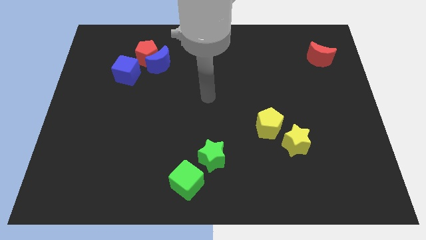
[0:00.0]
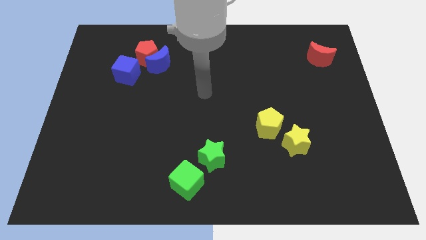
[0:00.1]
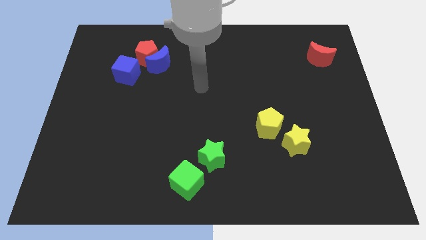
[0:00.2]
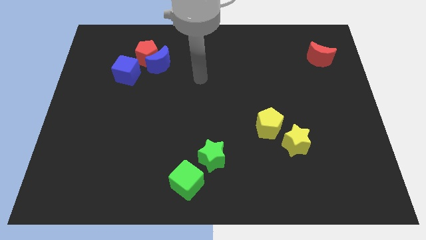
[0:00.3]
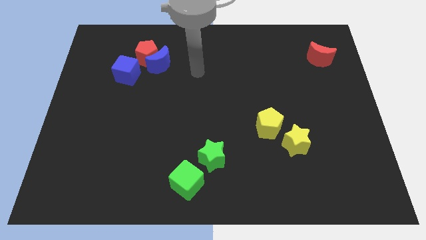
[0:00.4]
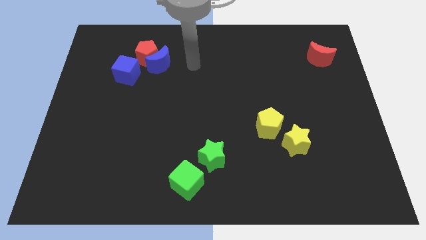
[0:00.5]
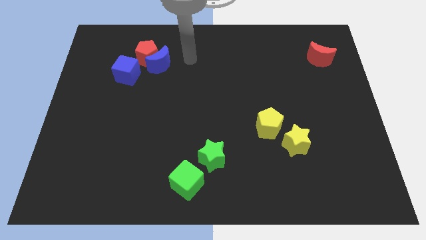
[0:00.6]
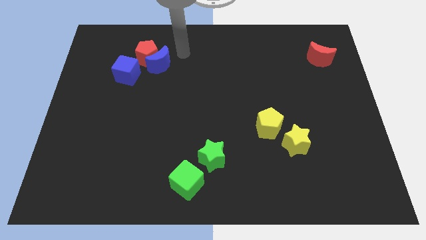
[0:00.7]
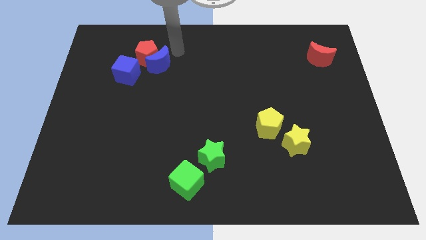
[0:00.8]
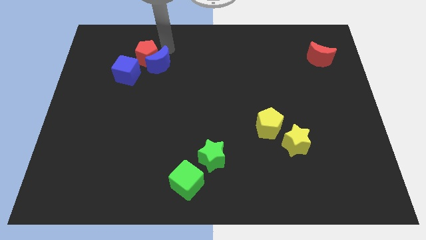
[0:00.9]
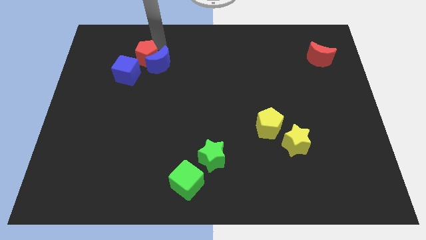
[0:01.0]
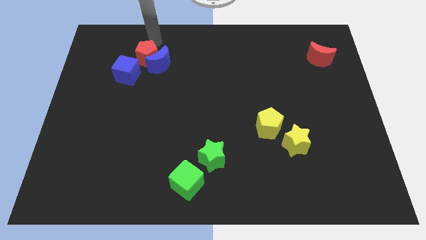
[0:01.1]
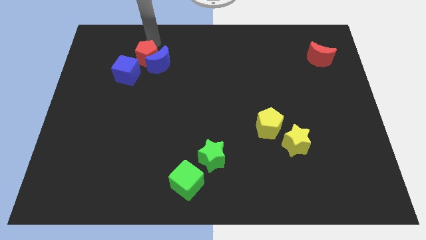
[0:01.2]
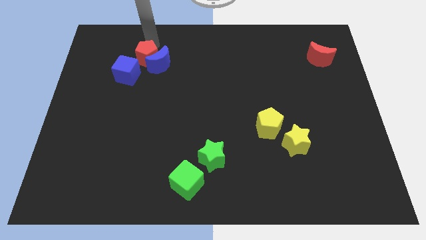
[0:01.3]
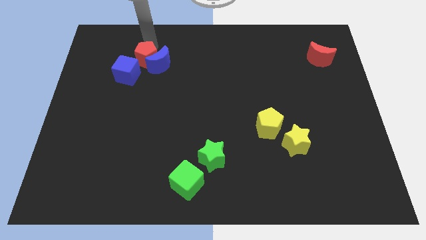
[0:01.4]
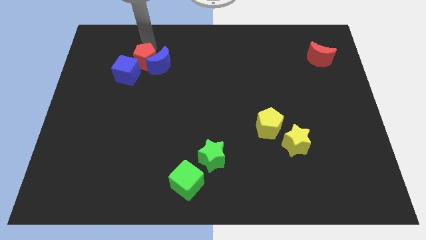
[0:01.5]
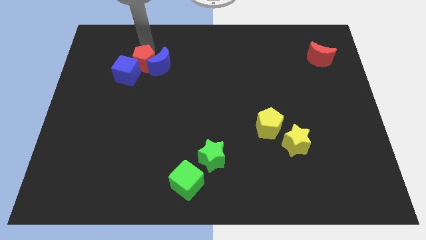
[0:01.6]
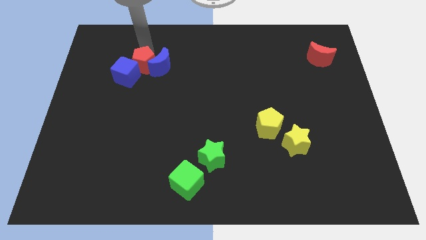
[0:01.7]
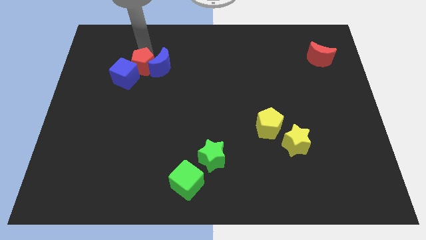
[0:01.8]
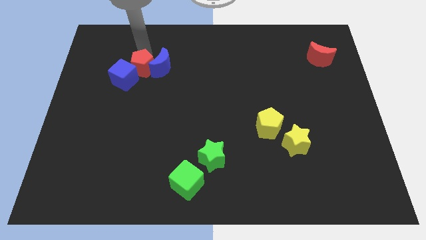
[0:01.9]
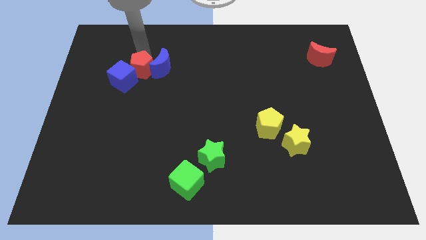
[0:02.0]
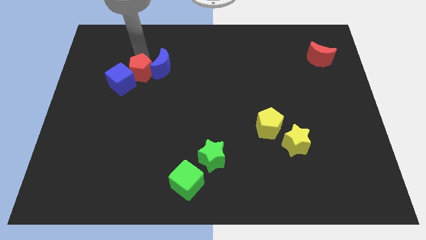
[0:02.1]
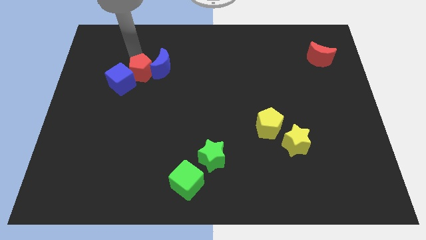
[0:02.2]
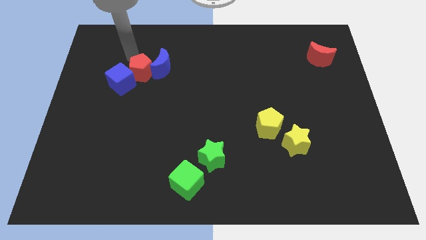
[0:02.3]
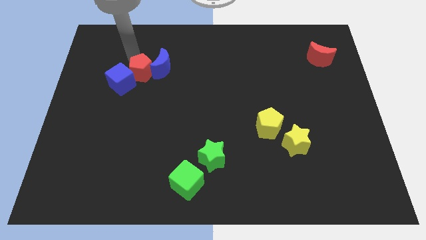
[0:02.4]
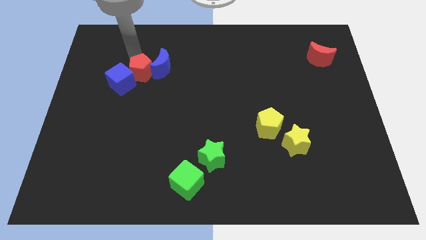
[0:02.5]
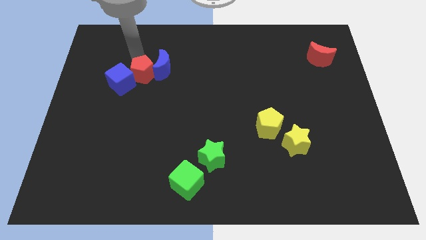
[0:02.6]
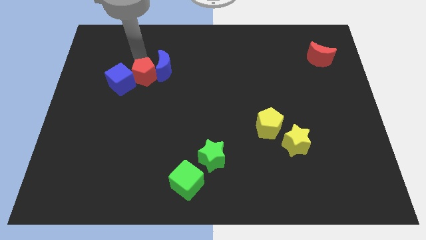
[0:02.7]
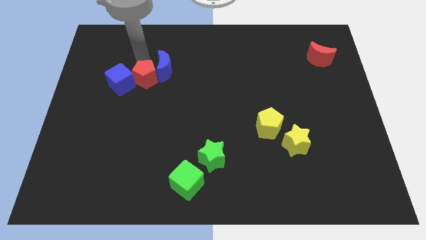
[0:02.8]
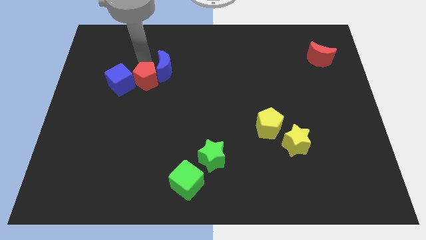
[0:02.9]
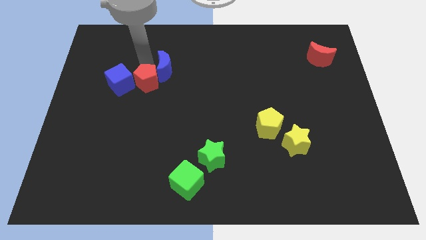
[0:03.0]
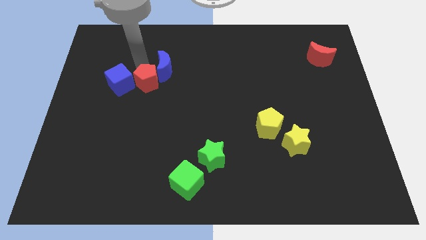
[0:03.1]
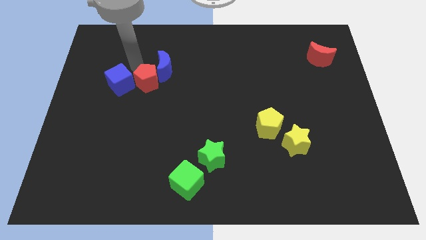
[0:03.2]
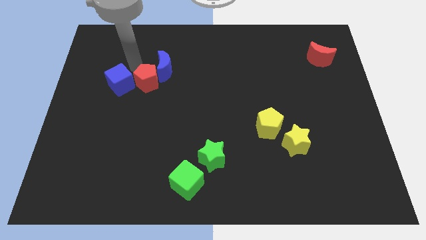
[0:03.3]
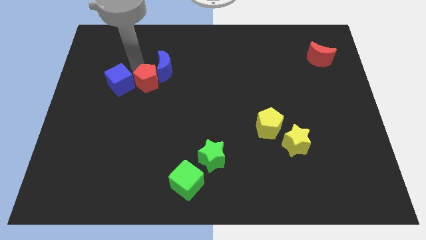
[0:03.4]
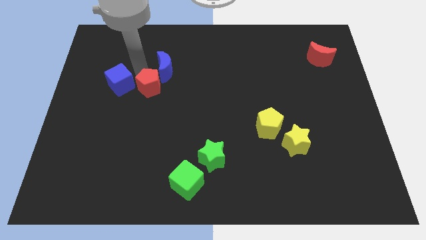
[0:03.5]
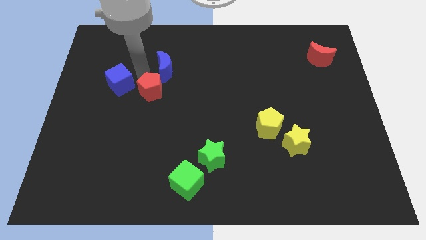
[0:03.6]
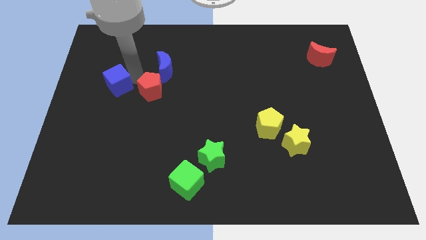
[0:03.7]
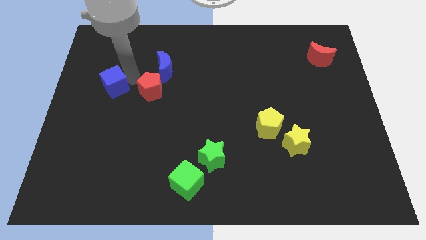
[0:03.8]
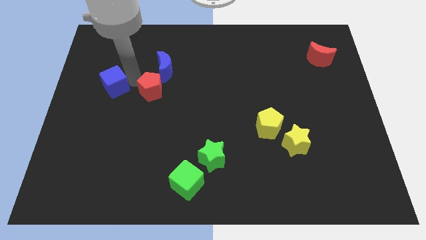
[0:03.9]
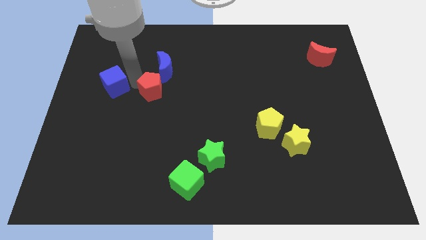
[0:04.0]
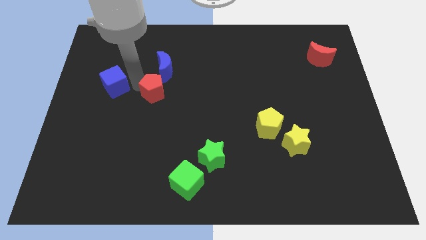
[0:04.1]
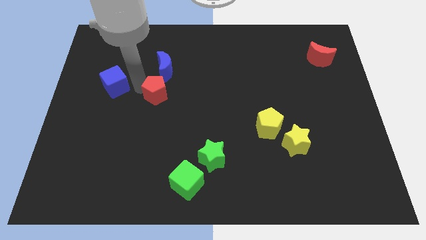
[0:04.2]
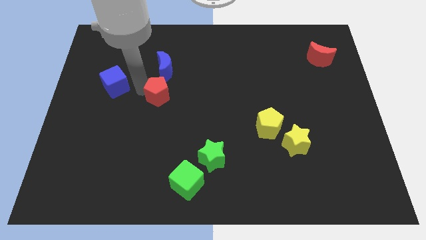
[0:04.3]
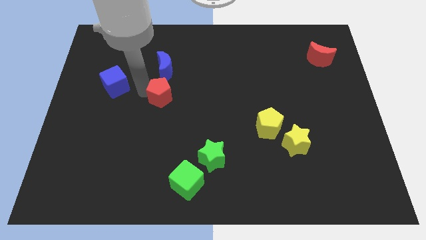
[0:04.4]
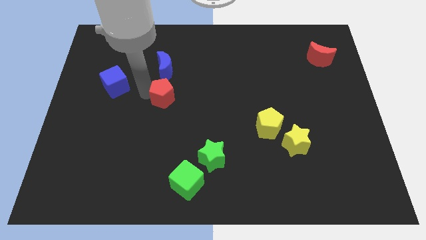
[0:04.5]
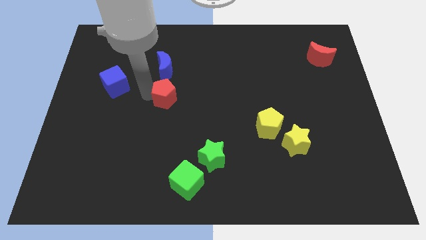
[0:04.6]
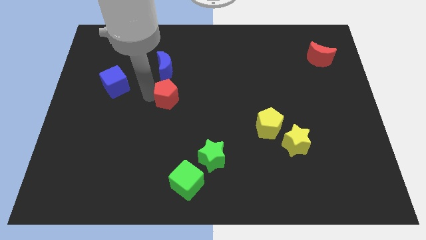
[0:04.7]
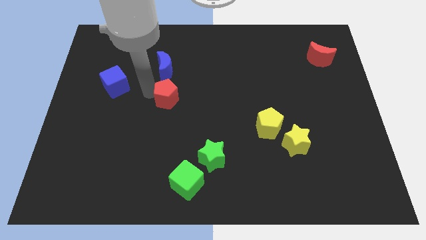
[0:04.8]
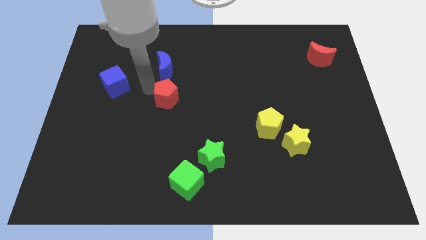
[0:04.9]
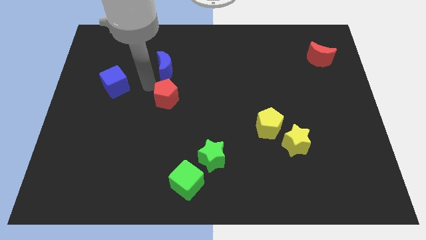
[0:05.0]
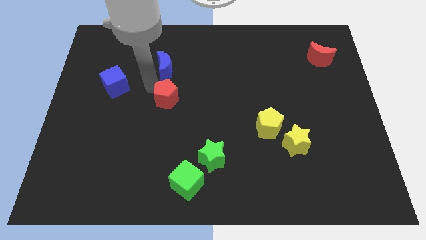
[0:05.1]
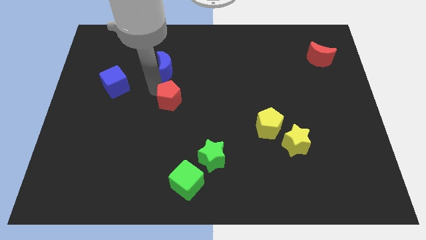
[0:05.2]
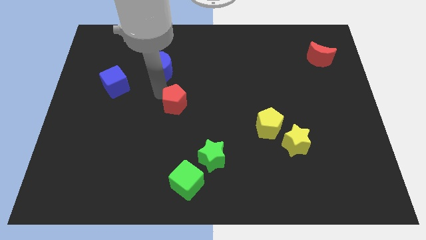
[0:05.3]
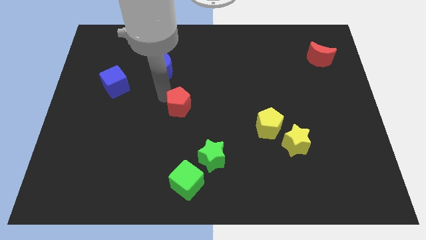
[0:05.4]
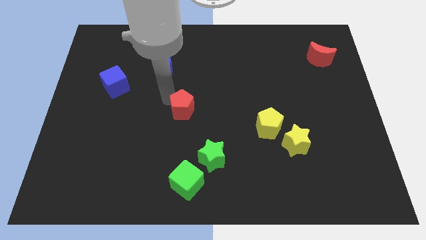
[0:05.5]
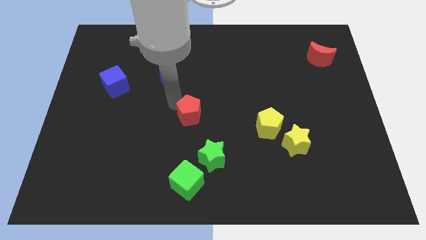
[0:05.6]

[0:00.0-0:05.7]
move the red pentagon downwards and to the right diagonally

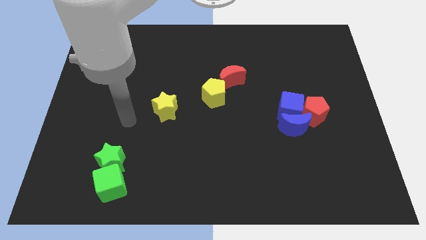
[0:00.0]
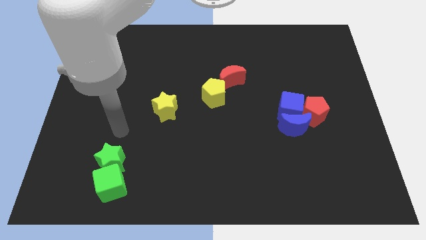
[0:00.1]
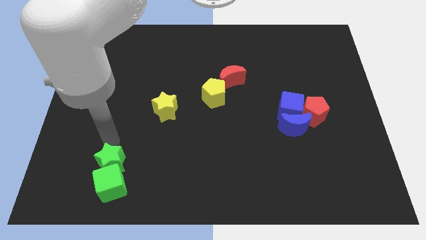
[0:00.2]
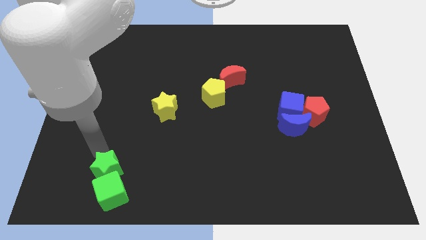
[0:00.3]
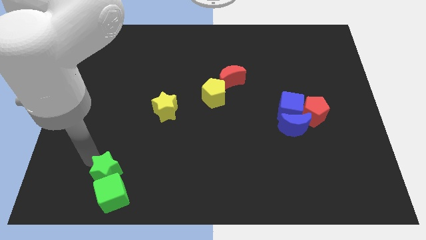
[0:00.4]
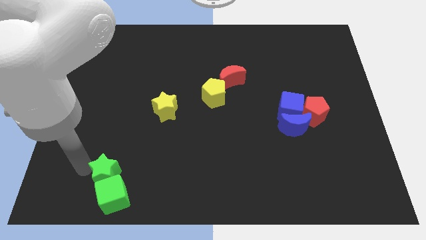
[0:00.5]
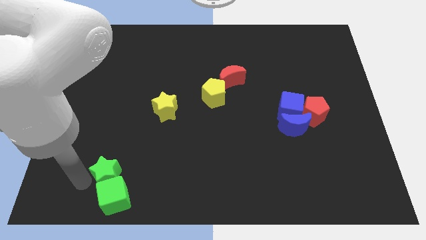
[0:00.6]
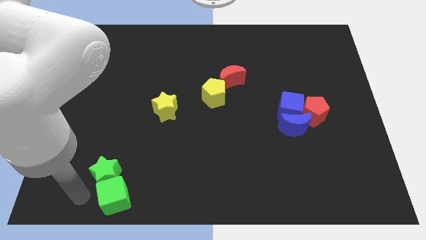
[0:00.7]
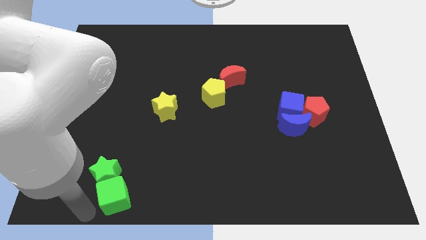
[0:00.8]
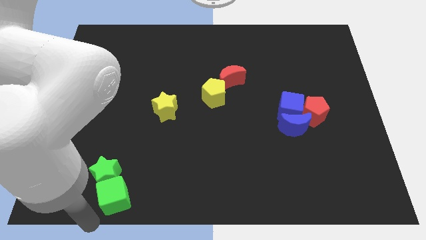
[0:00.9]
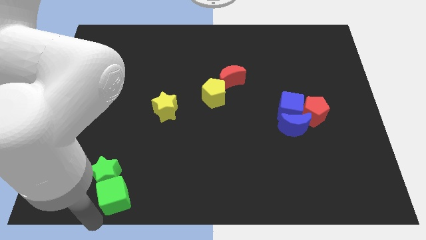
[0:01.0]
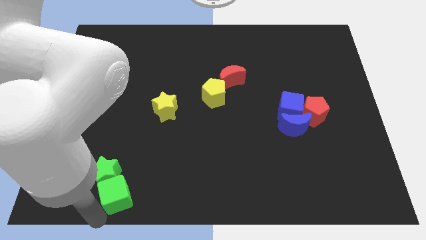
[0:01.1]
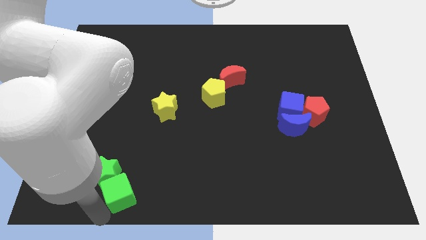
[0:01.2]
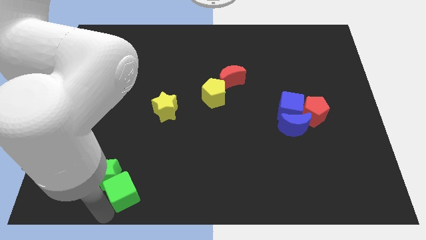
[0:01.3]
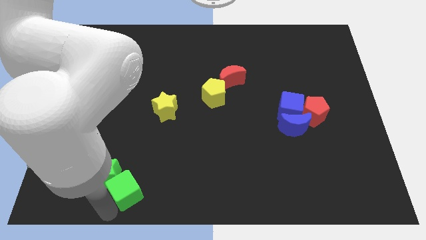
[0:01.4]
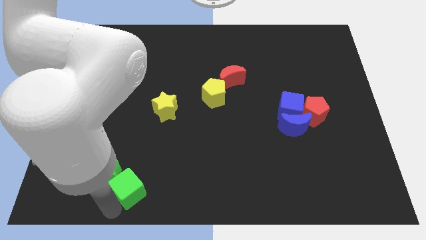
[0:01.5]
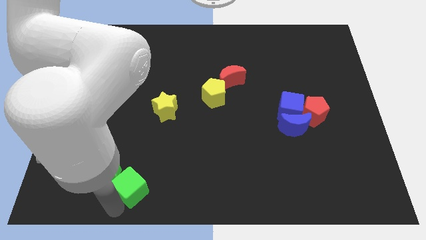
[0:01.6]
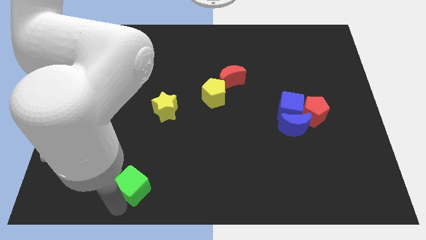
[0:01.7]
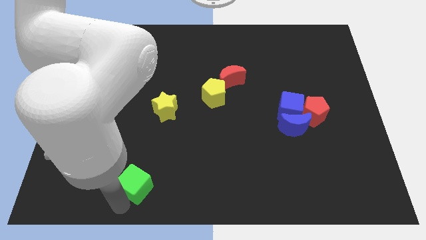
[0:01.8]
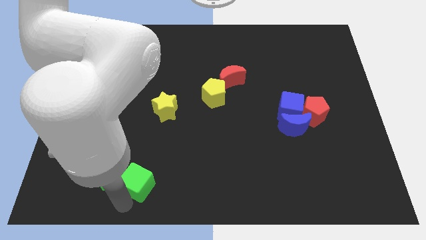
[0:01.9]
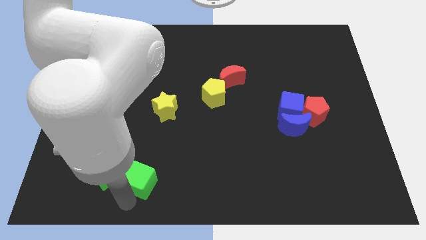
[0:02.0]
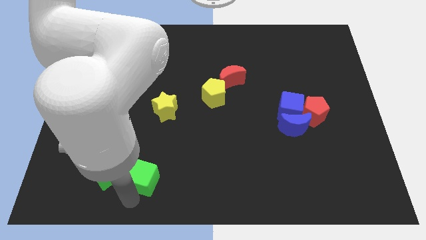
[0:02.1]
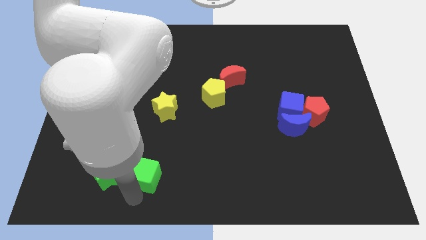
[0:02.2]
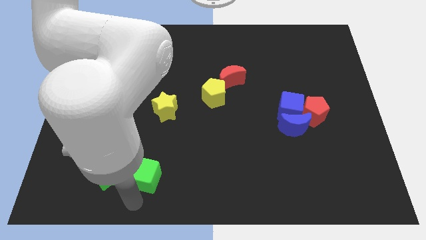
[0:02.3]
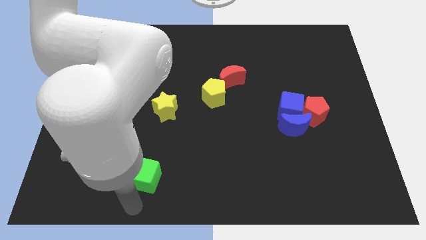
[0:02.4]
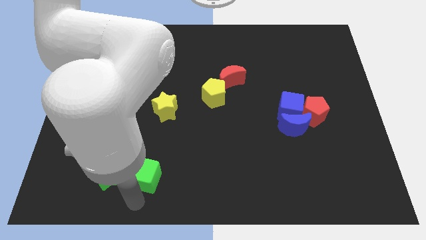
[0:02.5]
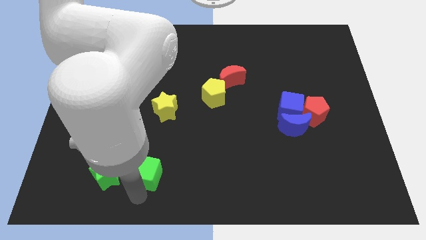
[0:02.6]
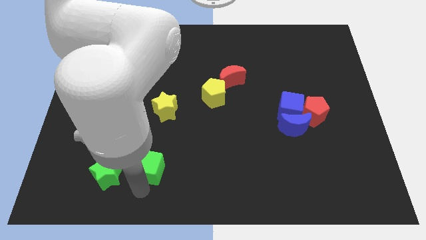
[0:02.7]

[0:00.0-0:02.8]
slightly slide the green cube up and to the right
